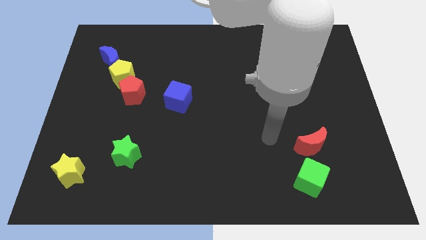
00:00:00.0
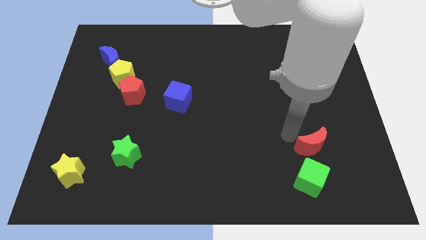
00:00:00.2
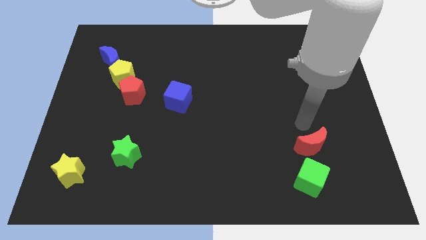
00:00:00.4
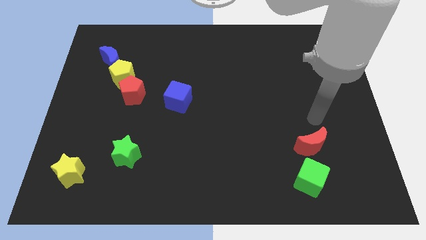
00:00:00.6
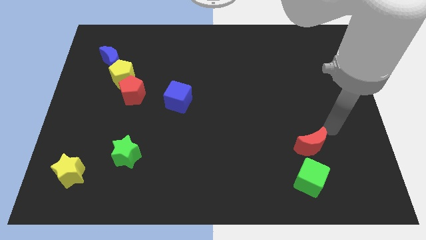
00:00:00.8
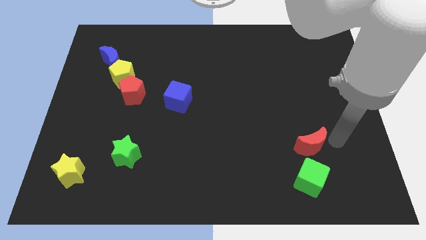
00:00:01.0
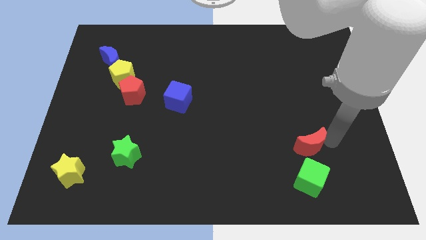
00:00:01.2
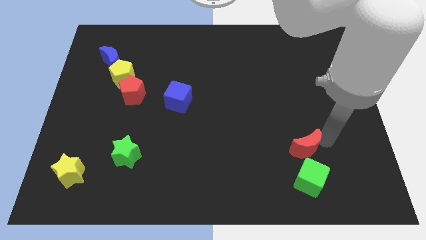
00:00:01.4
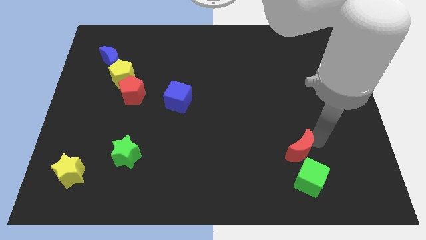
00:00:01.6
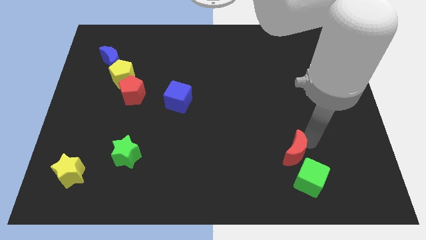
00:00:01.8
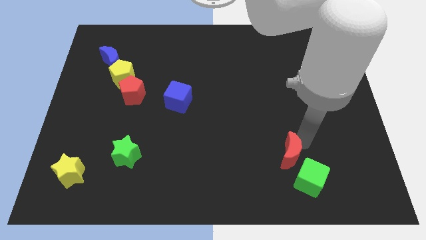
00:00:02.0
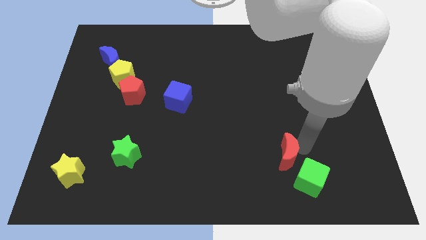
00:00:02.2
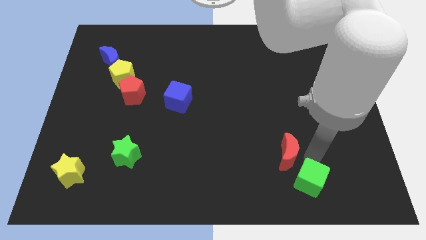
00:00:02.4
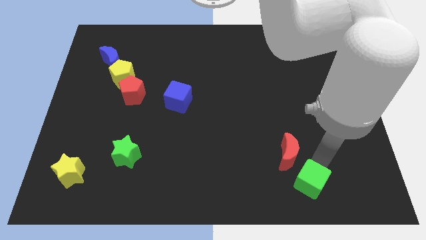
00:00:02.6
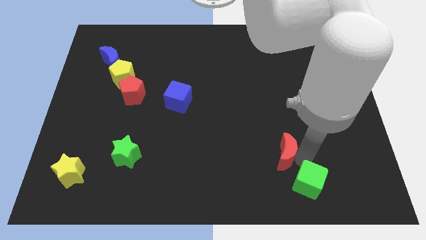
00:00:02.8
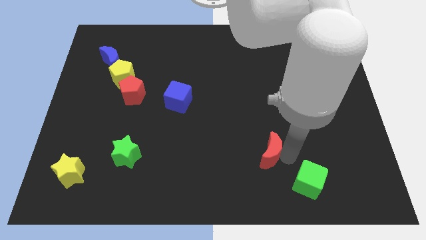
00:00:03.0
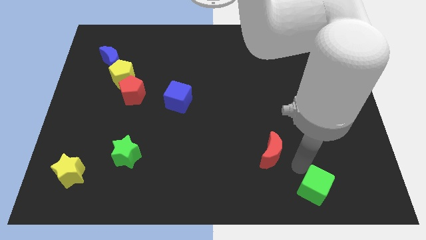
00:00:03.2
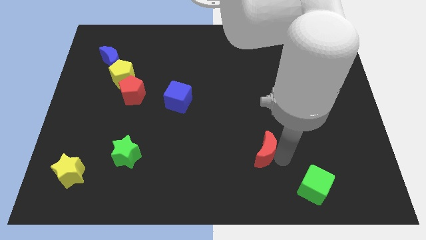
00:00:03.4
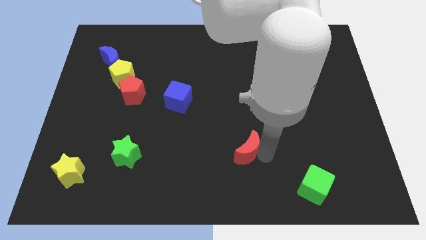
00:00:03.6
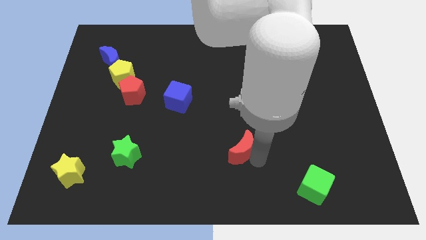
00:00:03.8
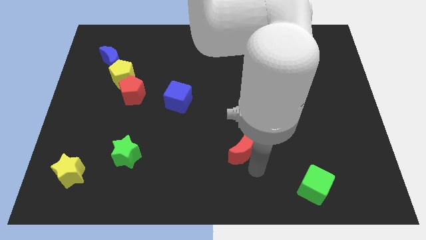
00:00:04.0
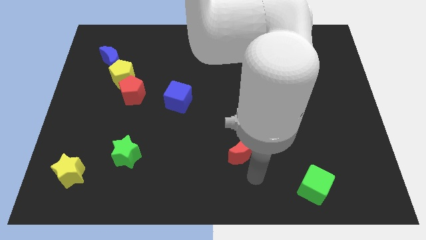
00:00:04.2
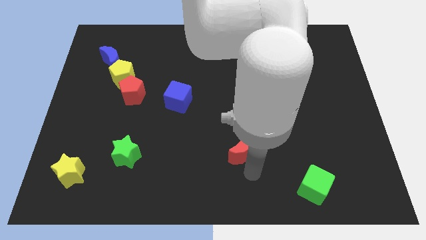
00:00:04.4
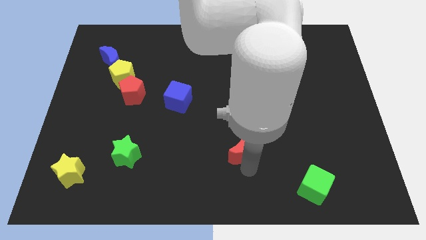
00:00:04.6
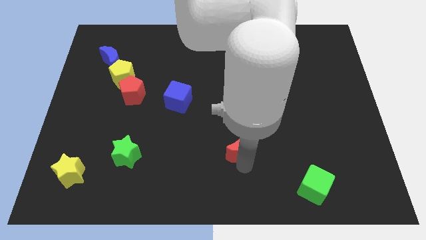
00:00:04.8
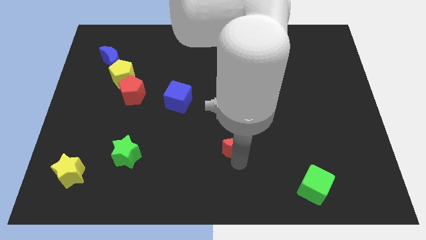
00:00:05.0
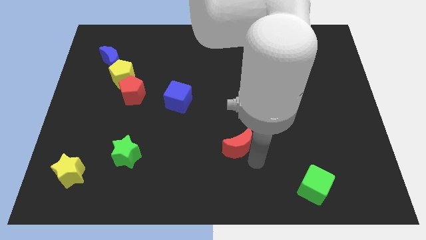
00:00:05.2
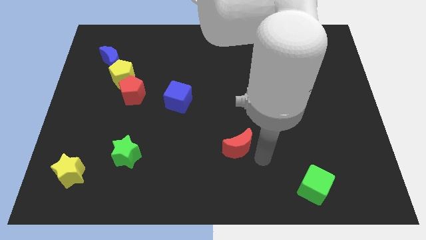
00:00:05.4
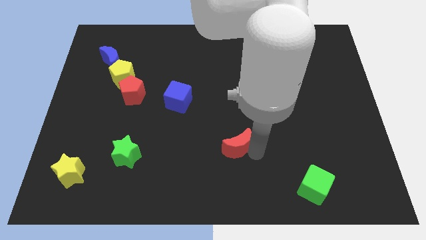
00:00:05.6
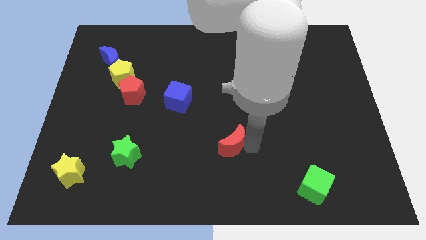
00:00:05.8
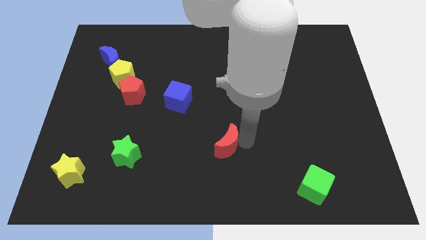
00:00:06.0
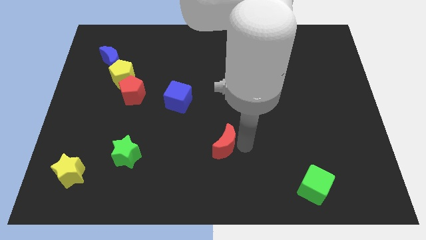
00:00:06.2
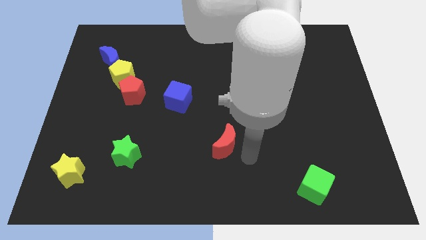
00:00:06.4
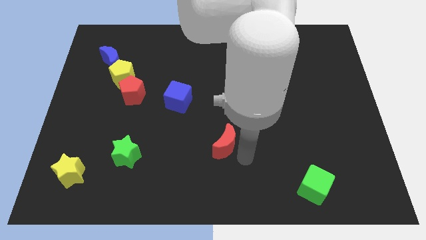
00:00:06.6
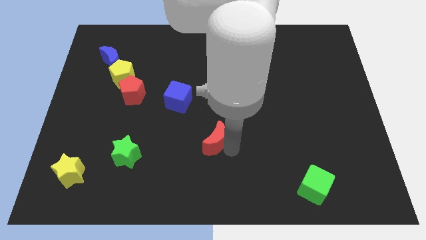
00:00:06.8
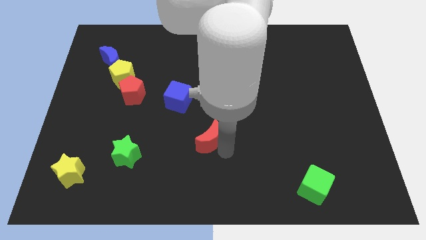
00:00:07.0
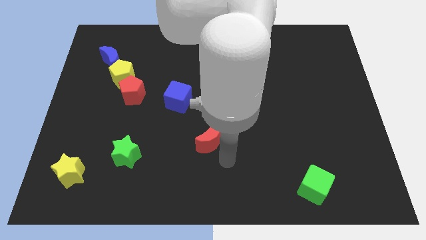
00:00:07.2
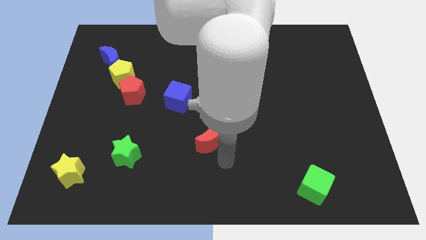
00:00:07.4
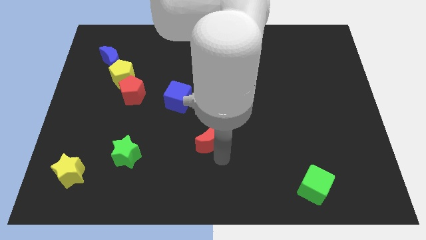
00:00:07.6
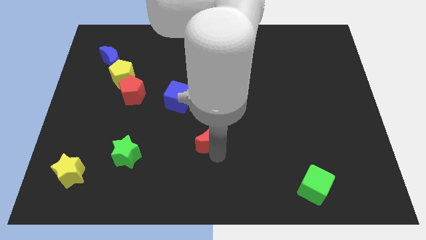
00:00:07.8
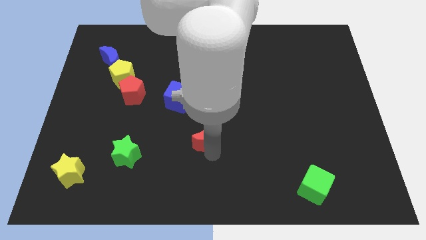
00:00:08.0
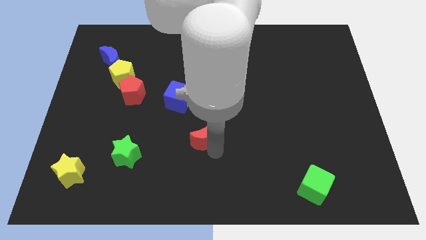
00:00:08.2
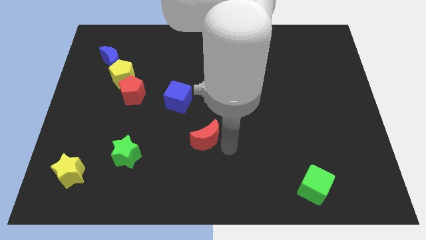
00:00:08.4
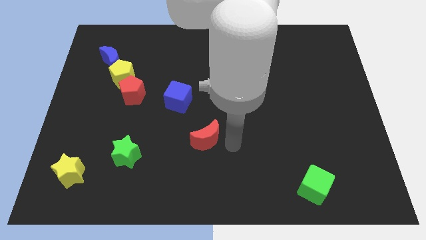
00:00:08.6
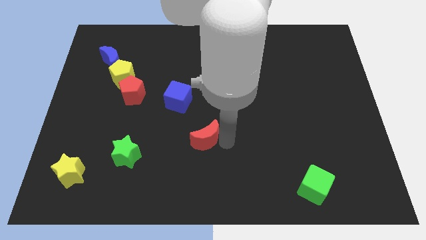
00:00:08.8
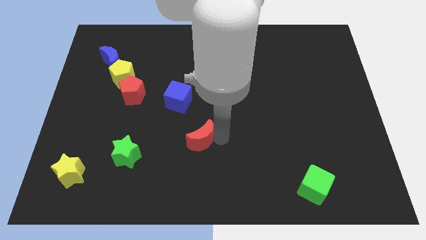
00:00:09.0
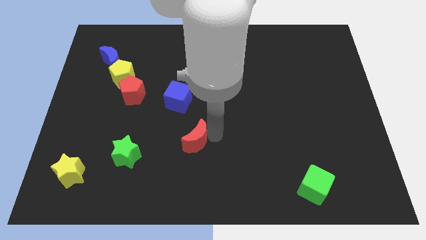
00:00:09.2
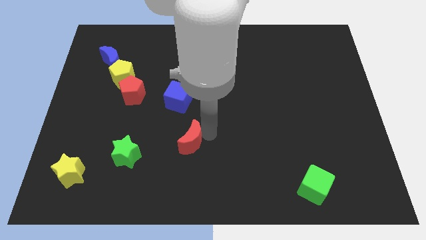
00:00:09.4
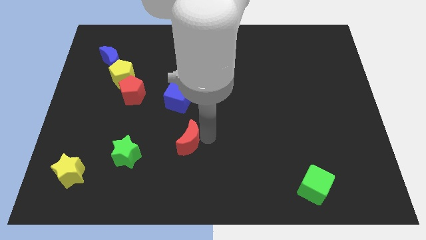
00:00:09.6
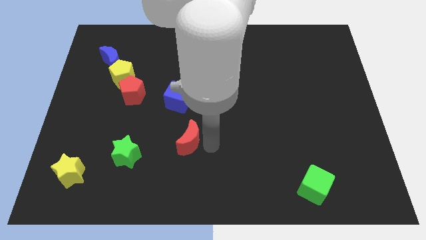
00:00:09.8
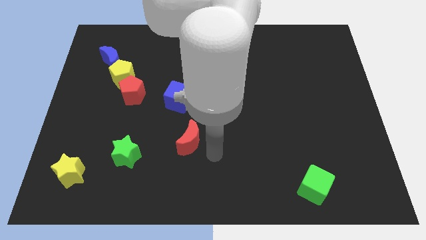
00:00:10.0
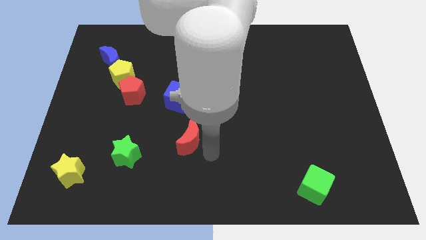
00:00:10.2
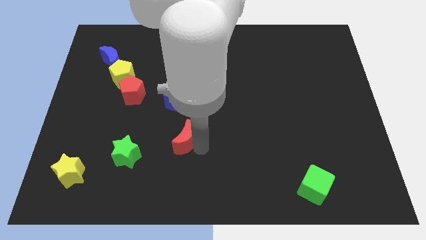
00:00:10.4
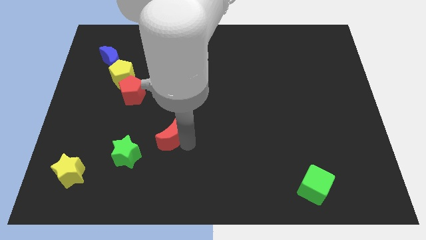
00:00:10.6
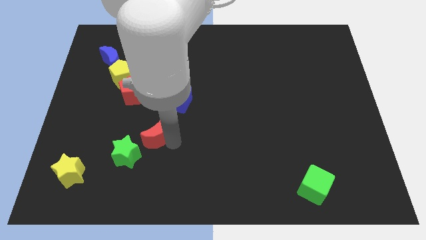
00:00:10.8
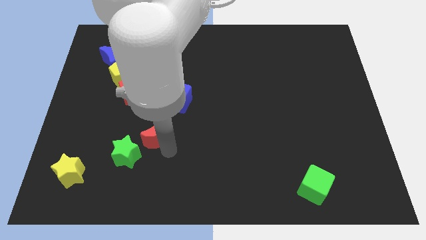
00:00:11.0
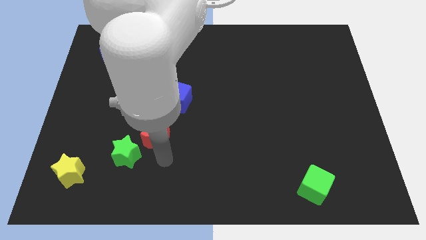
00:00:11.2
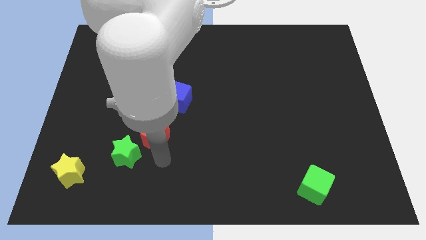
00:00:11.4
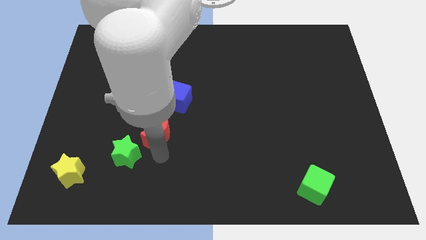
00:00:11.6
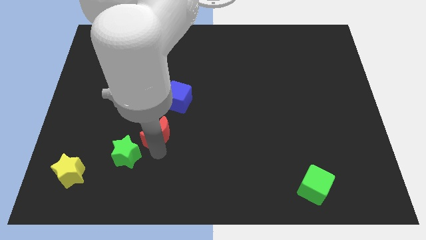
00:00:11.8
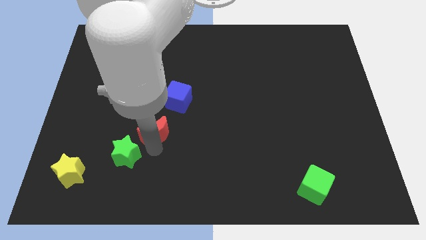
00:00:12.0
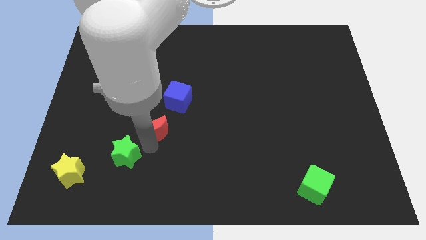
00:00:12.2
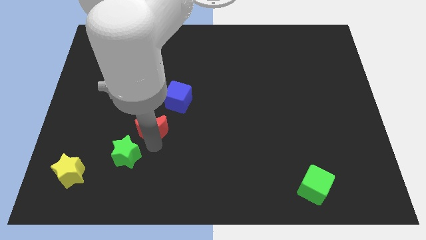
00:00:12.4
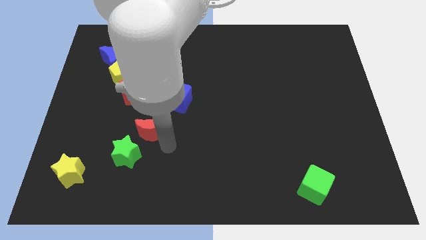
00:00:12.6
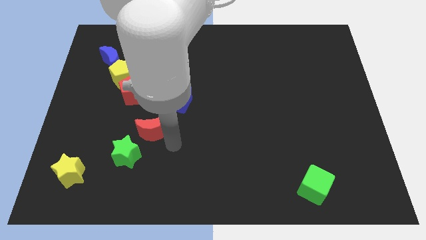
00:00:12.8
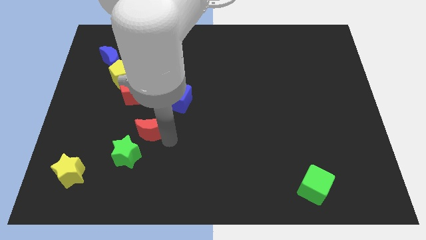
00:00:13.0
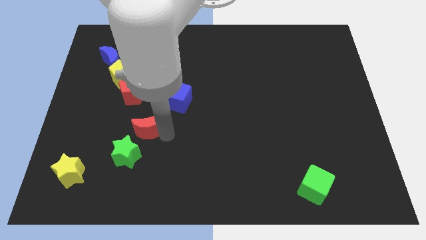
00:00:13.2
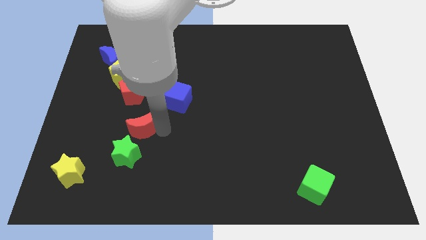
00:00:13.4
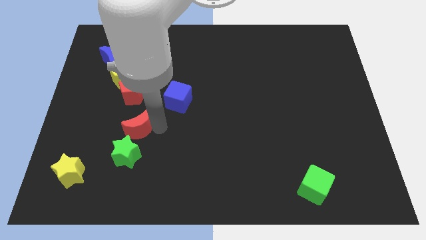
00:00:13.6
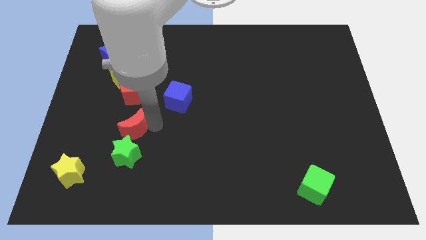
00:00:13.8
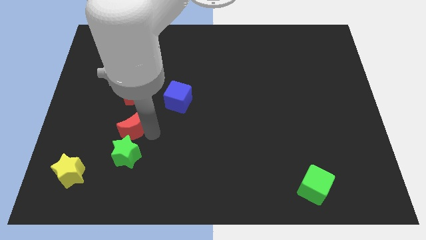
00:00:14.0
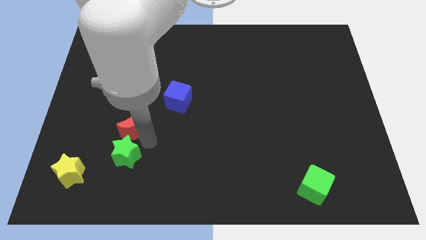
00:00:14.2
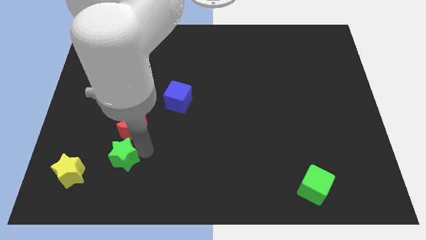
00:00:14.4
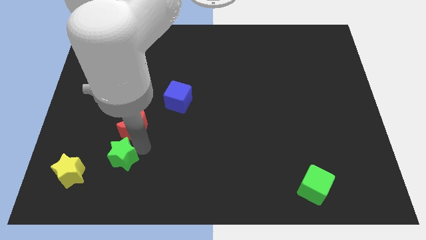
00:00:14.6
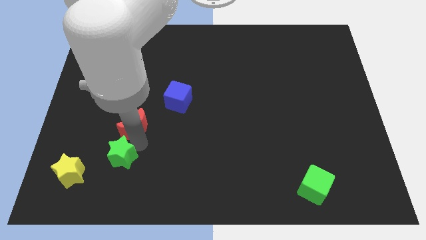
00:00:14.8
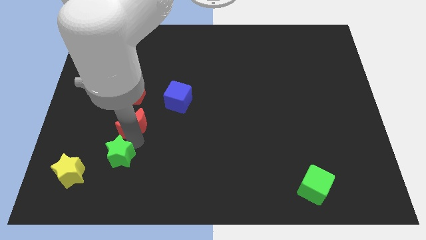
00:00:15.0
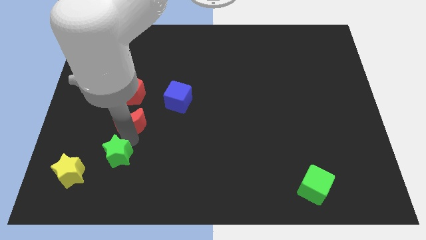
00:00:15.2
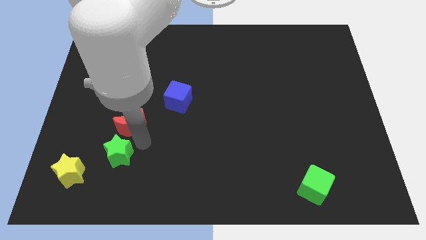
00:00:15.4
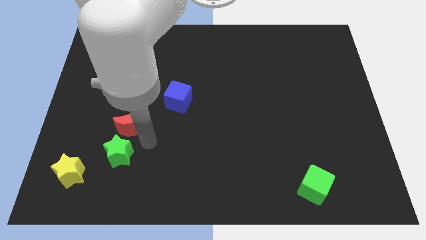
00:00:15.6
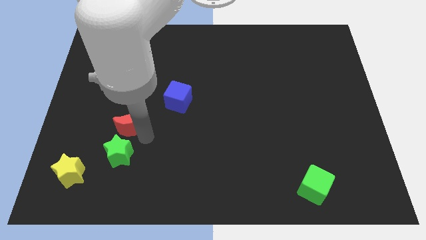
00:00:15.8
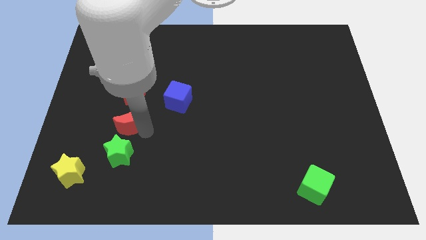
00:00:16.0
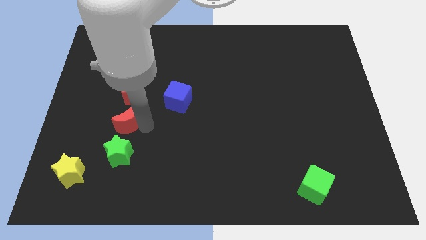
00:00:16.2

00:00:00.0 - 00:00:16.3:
push the red moon to the bottom of the yellow pentagon
